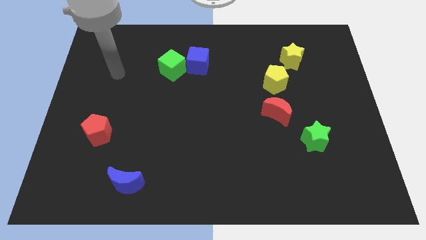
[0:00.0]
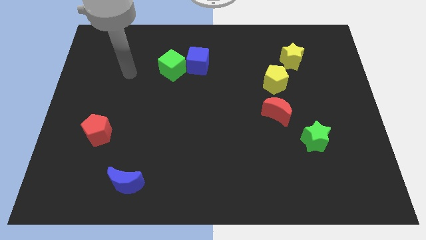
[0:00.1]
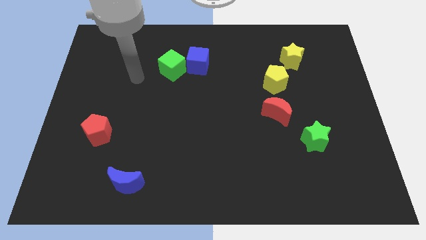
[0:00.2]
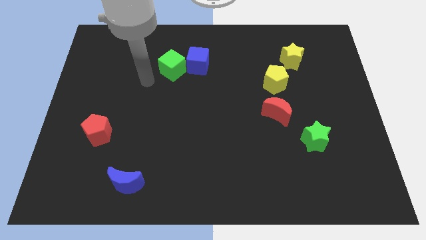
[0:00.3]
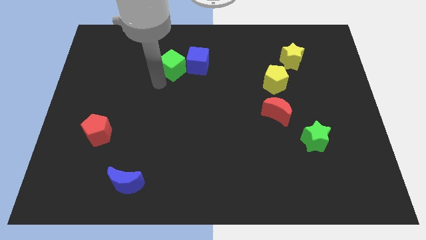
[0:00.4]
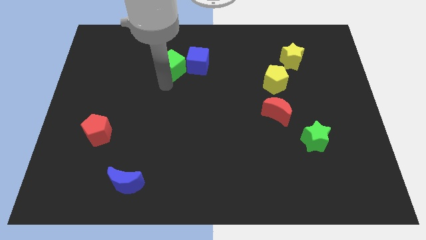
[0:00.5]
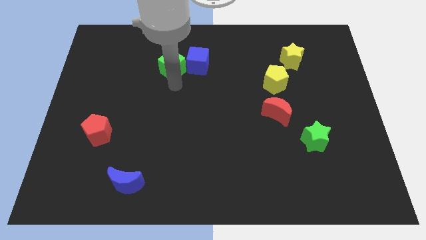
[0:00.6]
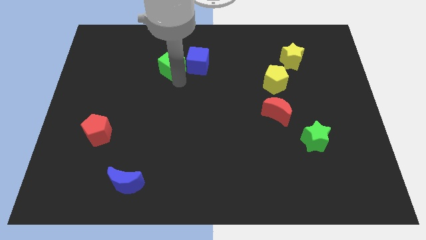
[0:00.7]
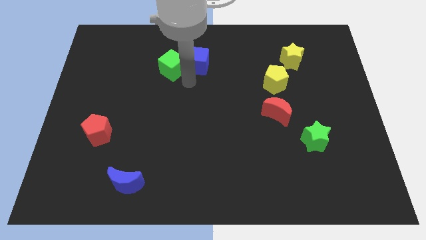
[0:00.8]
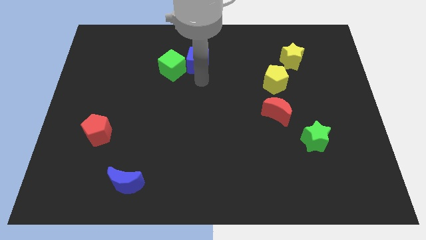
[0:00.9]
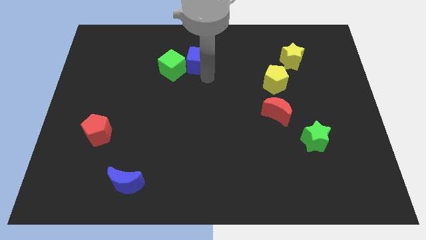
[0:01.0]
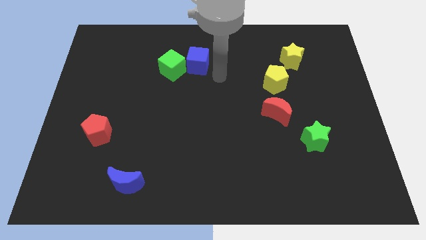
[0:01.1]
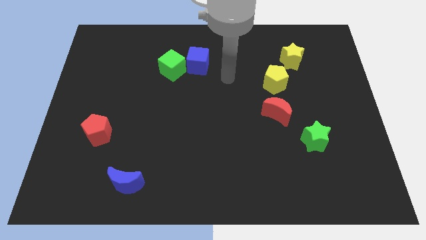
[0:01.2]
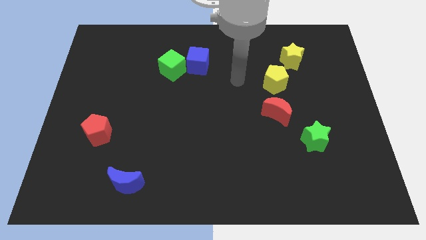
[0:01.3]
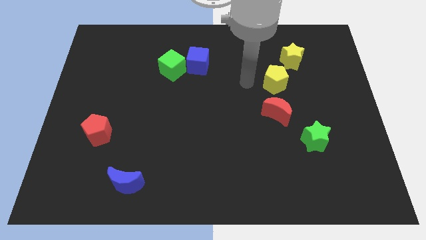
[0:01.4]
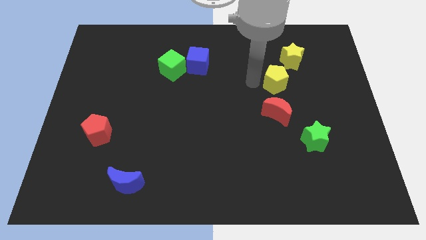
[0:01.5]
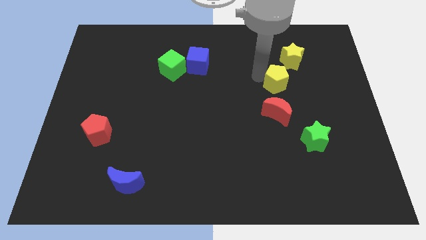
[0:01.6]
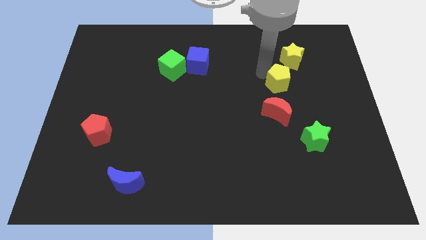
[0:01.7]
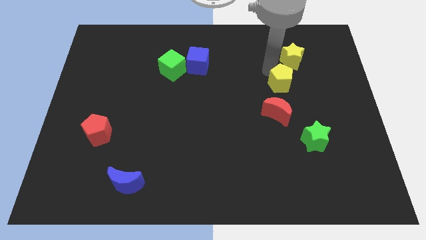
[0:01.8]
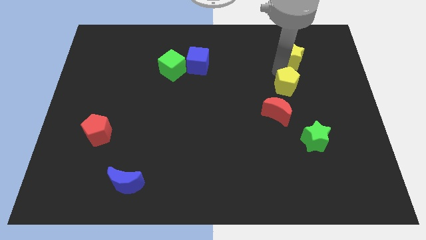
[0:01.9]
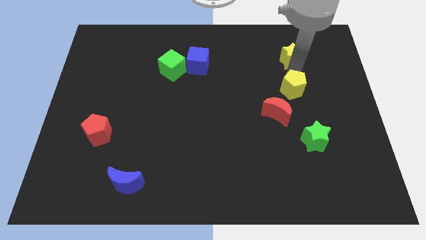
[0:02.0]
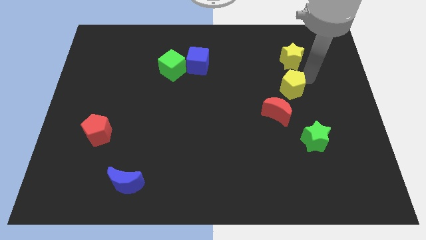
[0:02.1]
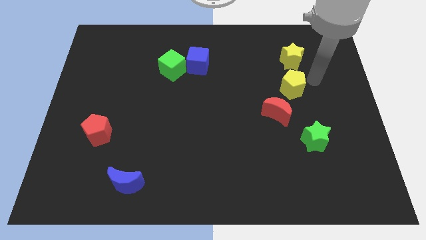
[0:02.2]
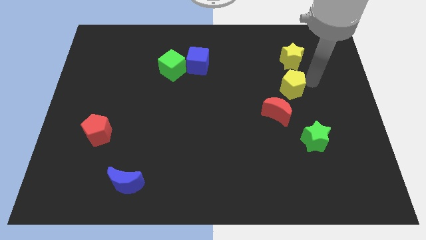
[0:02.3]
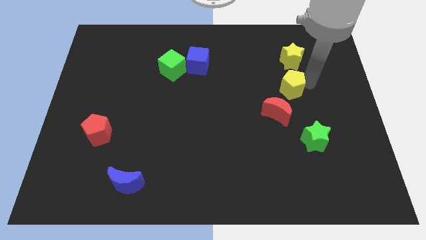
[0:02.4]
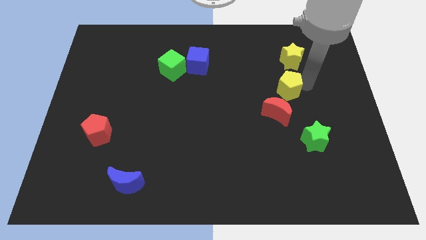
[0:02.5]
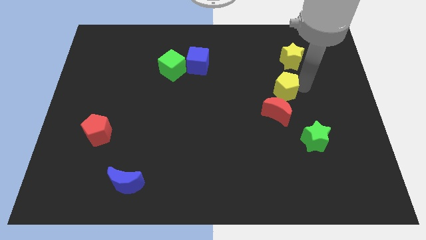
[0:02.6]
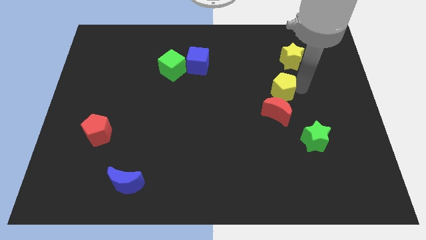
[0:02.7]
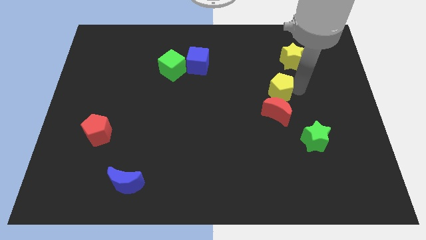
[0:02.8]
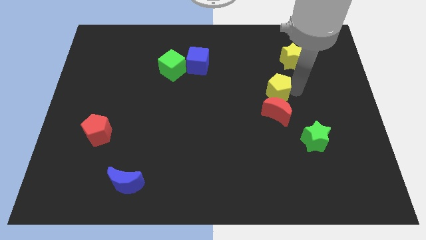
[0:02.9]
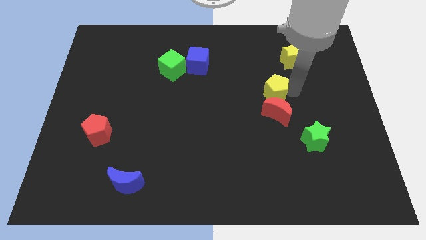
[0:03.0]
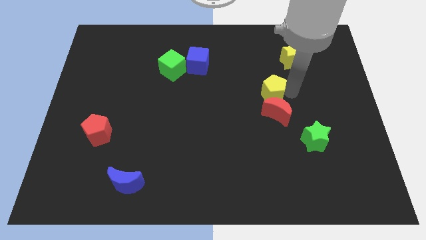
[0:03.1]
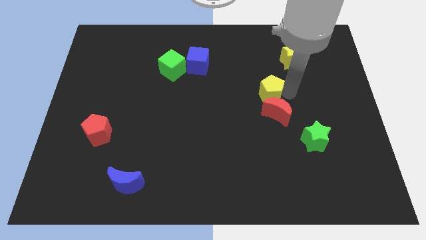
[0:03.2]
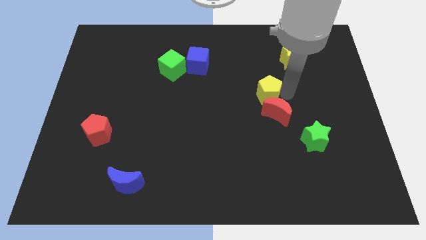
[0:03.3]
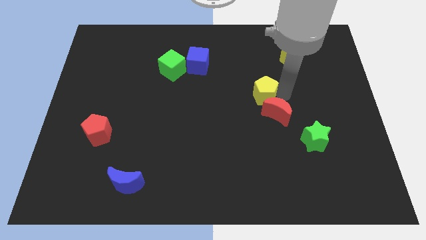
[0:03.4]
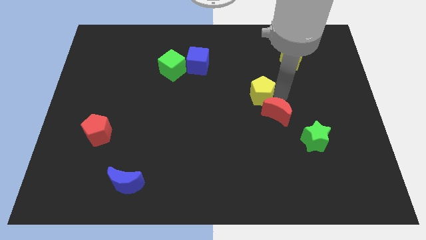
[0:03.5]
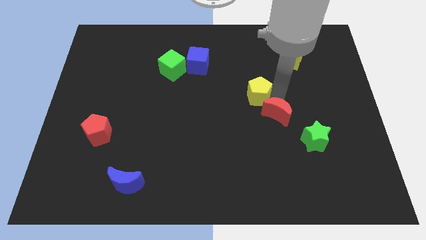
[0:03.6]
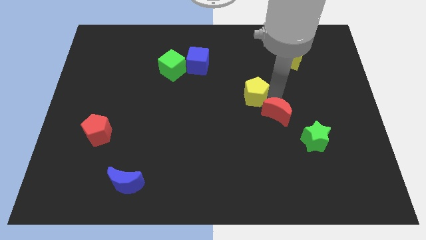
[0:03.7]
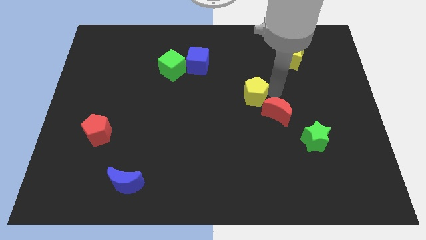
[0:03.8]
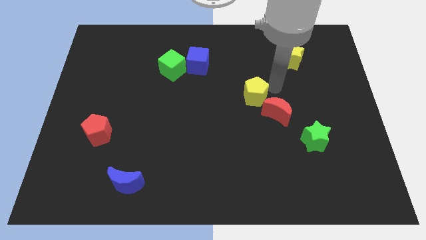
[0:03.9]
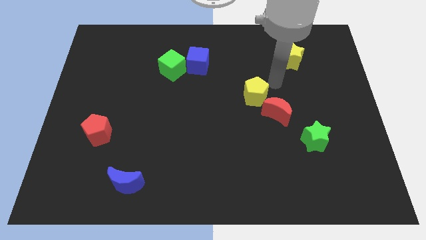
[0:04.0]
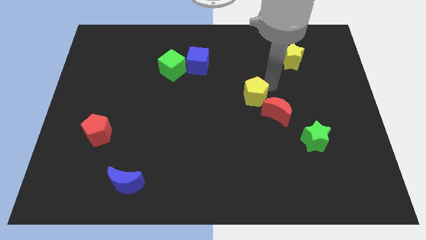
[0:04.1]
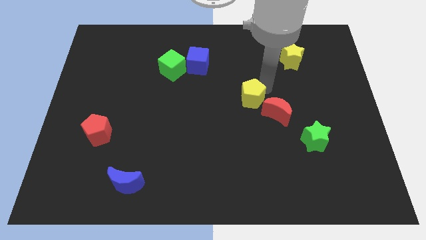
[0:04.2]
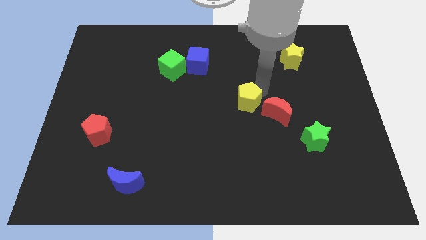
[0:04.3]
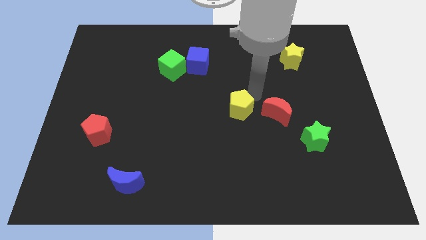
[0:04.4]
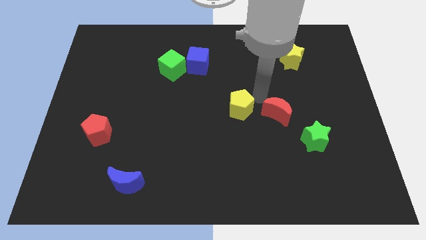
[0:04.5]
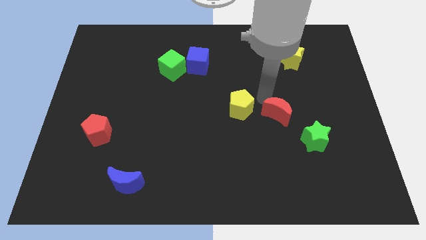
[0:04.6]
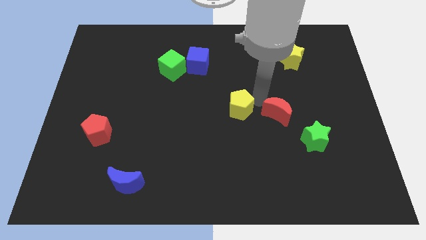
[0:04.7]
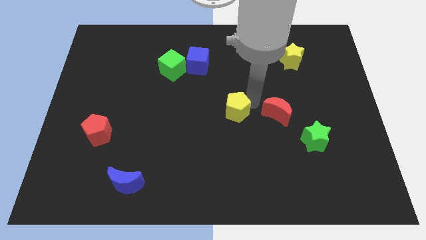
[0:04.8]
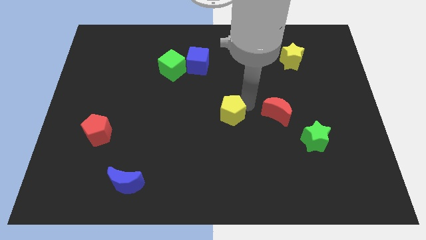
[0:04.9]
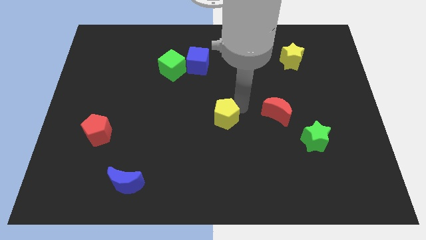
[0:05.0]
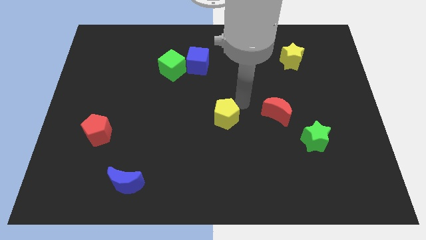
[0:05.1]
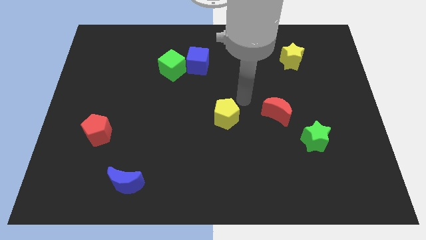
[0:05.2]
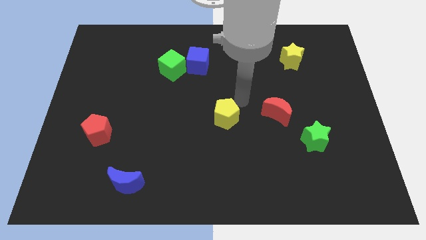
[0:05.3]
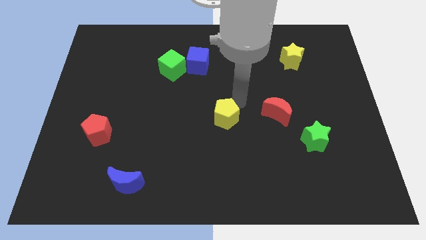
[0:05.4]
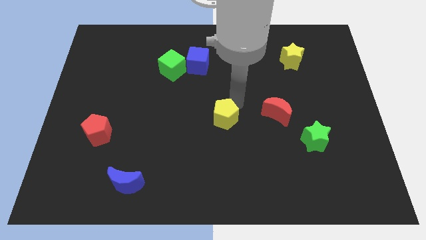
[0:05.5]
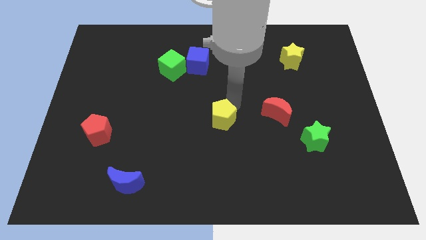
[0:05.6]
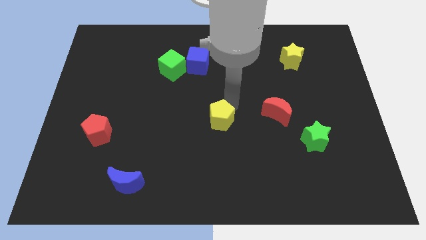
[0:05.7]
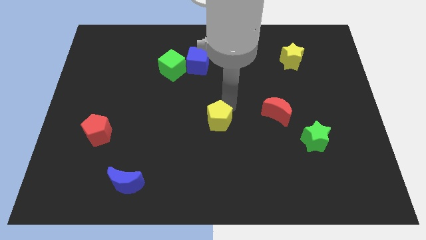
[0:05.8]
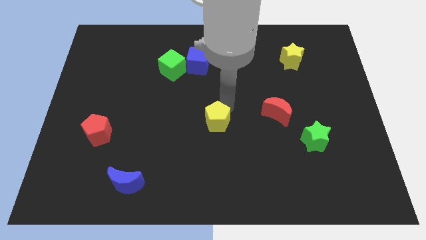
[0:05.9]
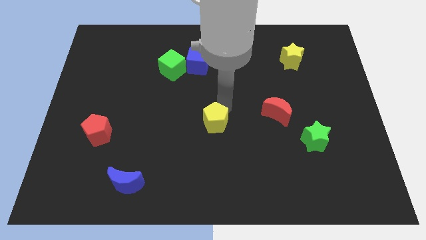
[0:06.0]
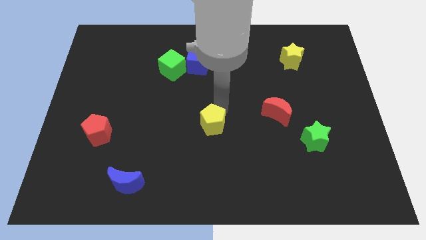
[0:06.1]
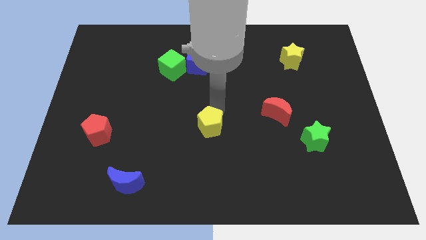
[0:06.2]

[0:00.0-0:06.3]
slide the yellow pentagon down and to the left

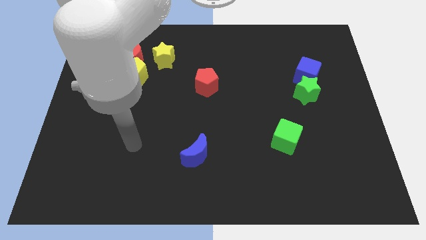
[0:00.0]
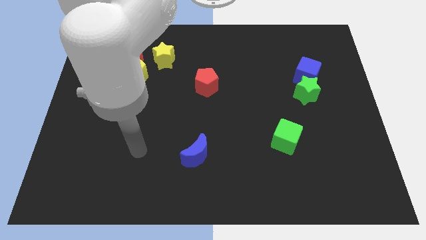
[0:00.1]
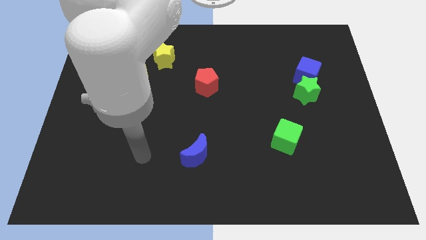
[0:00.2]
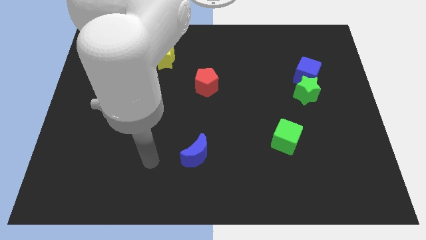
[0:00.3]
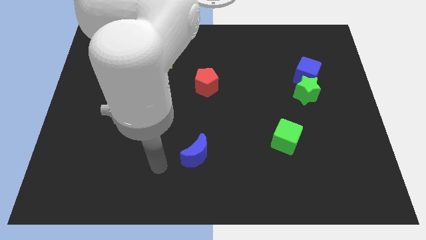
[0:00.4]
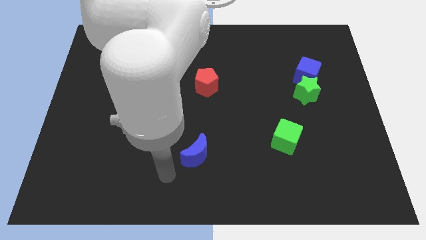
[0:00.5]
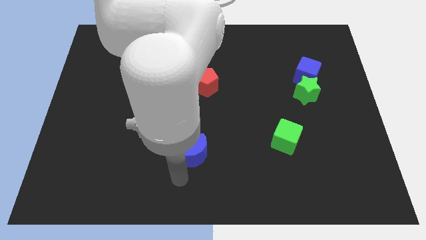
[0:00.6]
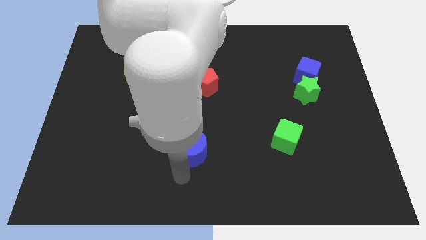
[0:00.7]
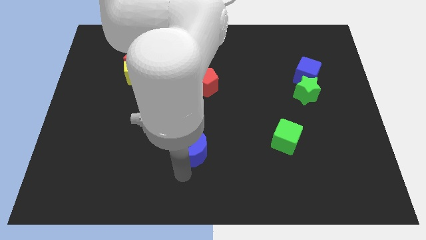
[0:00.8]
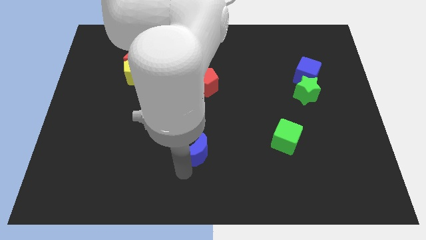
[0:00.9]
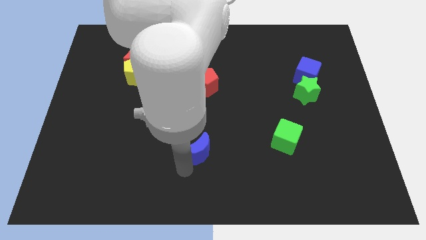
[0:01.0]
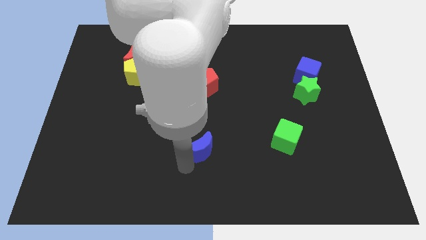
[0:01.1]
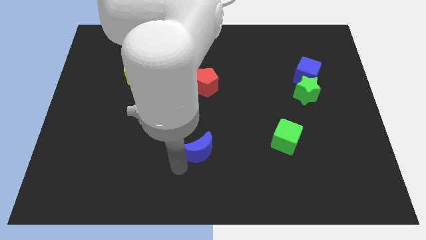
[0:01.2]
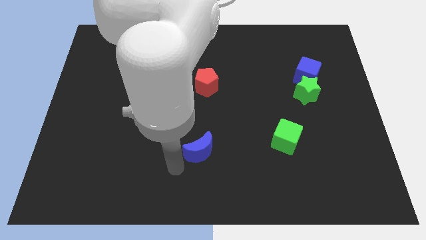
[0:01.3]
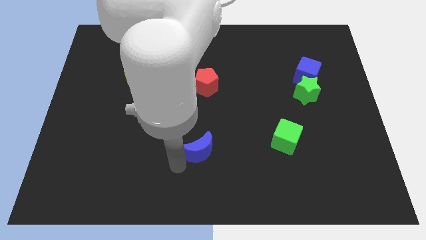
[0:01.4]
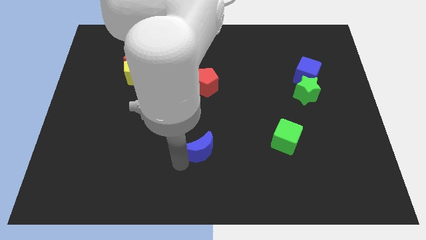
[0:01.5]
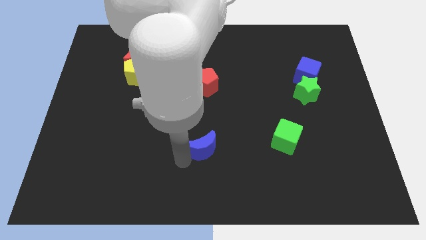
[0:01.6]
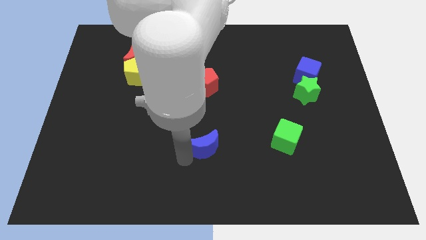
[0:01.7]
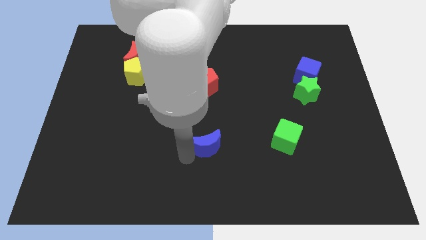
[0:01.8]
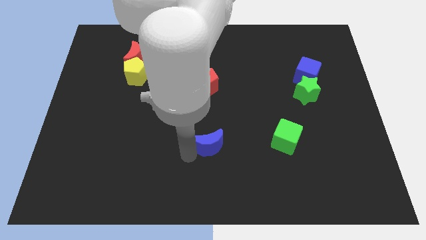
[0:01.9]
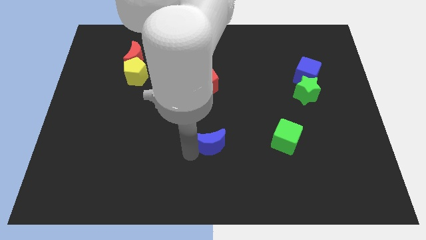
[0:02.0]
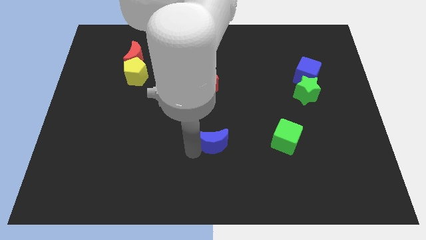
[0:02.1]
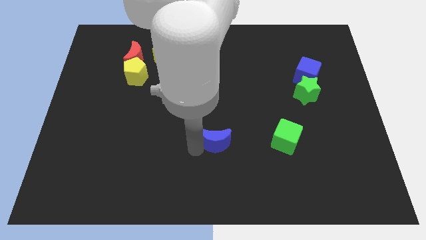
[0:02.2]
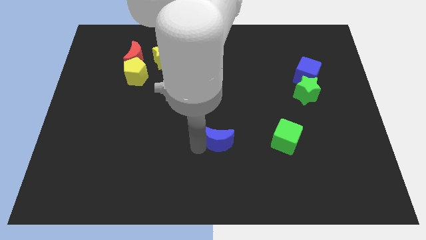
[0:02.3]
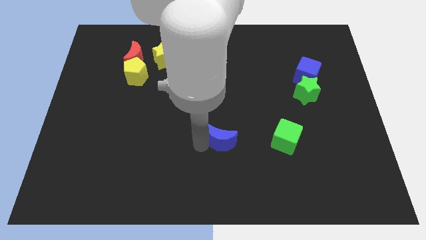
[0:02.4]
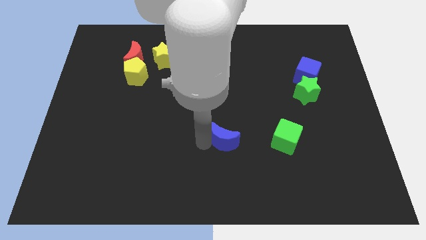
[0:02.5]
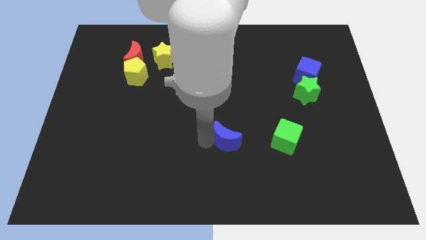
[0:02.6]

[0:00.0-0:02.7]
push the blue moon a little up and then right
